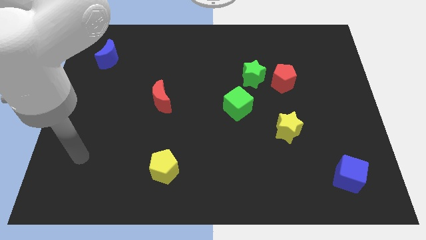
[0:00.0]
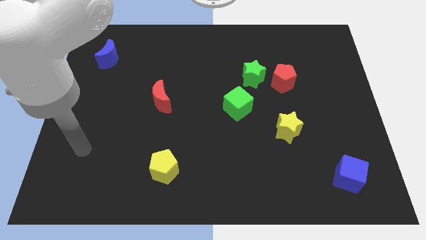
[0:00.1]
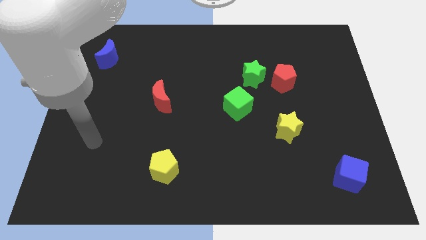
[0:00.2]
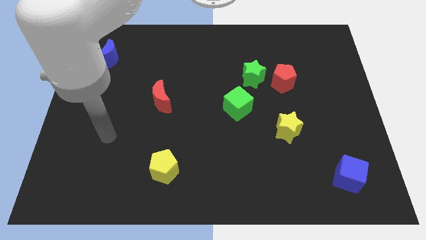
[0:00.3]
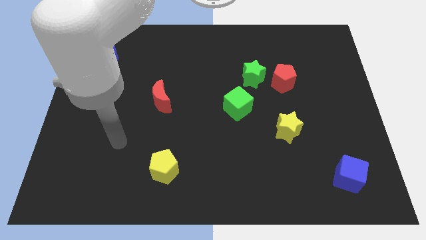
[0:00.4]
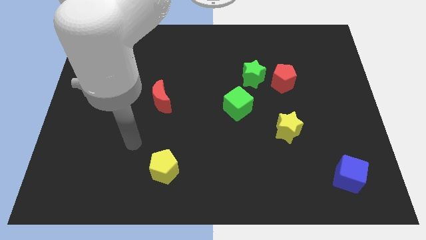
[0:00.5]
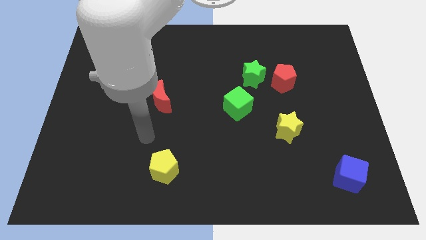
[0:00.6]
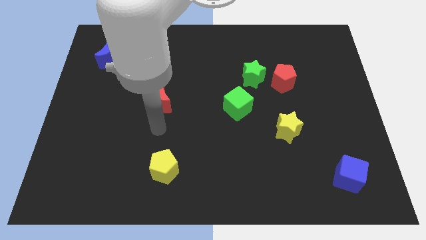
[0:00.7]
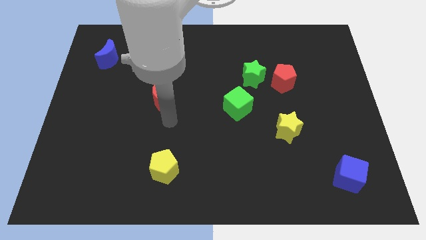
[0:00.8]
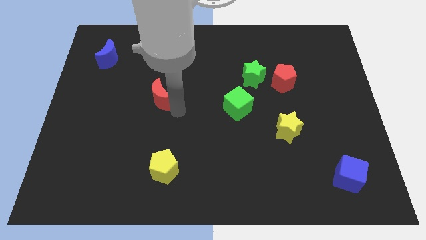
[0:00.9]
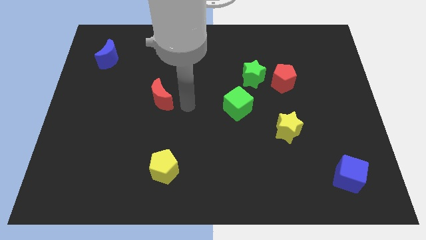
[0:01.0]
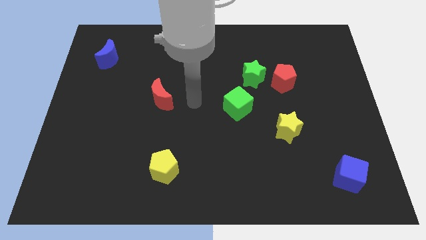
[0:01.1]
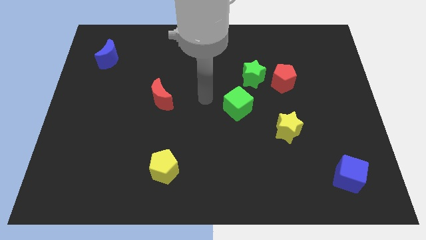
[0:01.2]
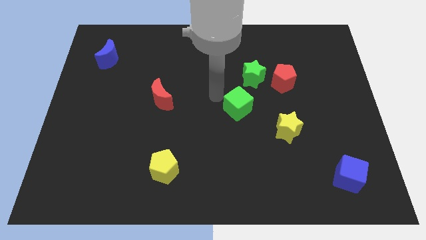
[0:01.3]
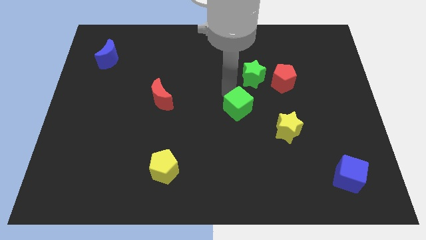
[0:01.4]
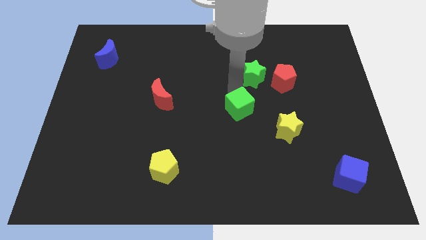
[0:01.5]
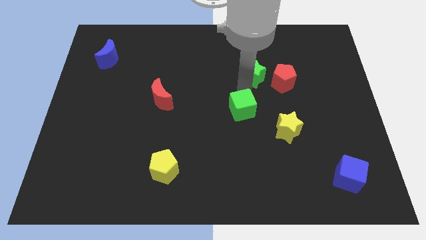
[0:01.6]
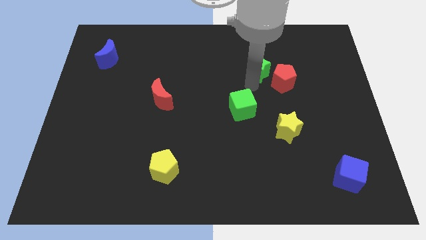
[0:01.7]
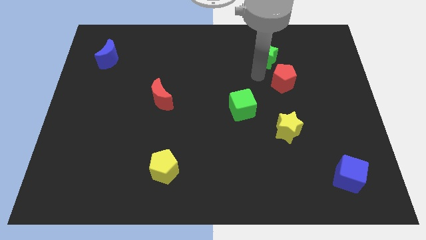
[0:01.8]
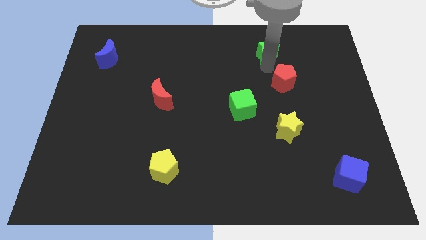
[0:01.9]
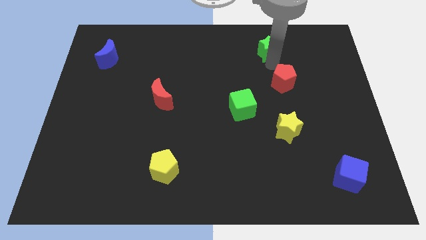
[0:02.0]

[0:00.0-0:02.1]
move the red pentagon away from the green star

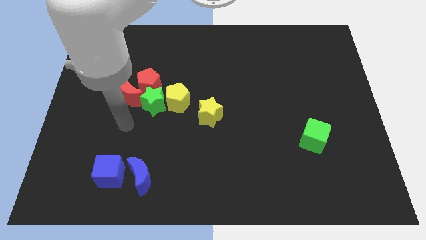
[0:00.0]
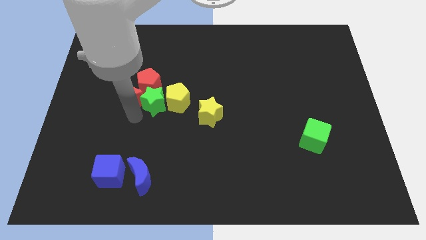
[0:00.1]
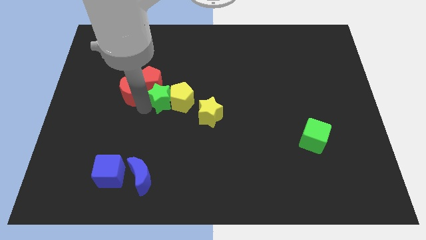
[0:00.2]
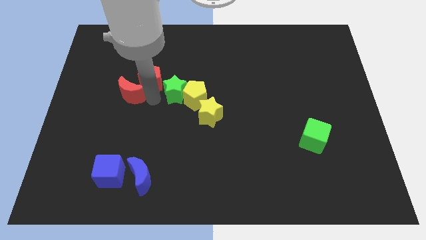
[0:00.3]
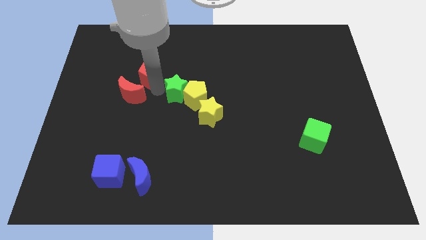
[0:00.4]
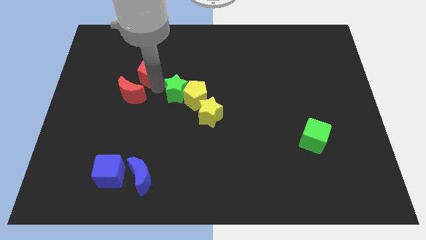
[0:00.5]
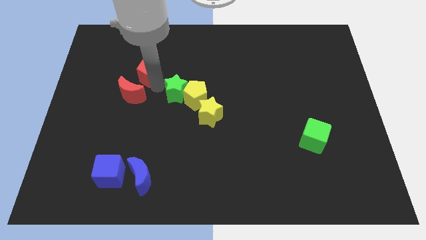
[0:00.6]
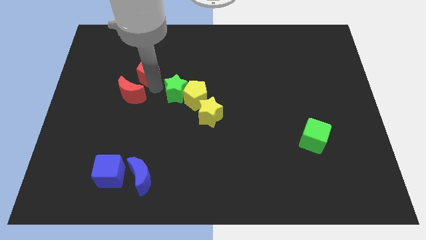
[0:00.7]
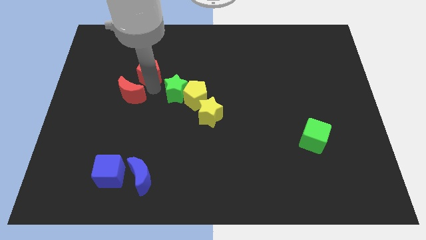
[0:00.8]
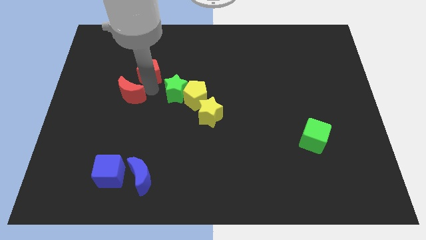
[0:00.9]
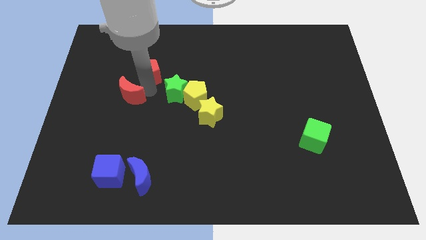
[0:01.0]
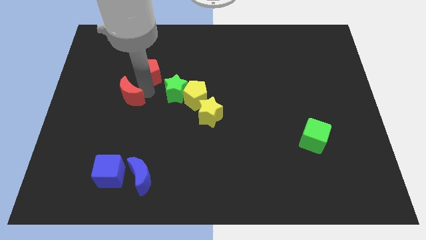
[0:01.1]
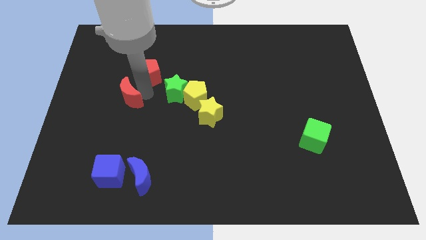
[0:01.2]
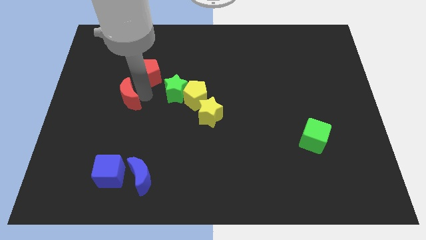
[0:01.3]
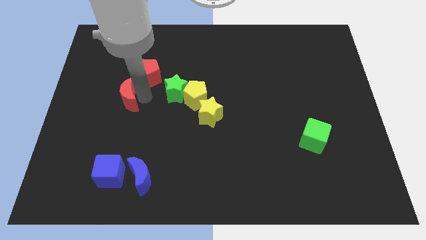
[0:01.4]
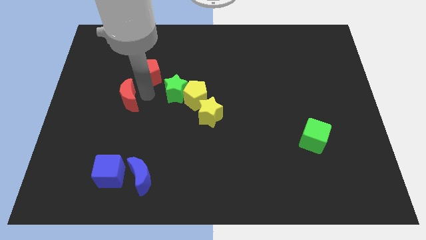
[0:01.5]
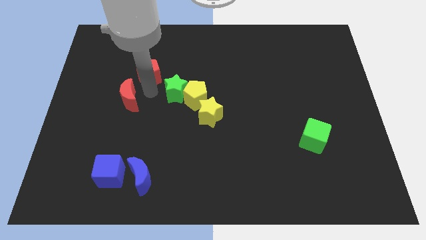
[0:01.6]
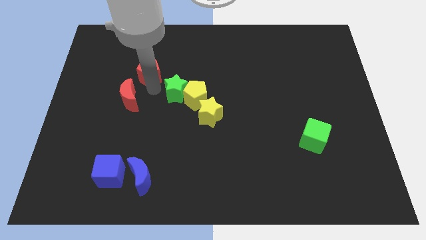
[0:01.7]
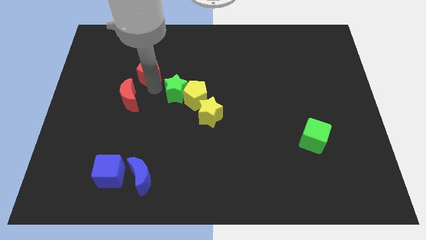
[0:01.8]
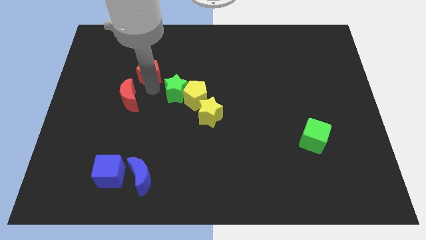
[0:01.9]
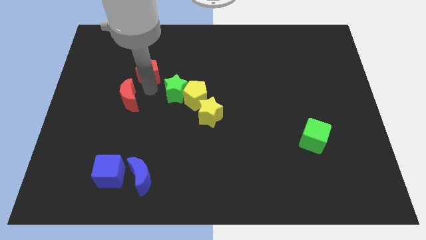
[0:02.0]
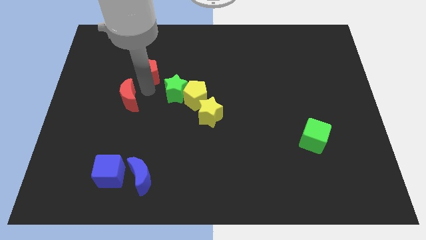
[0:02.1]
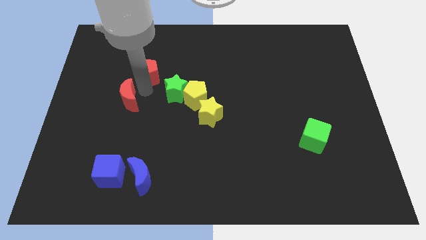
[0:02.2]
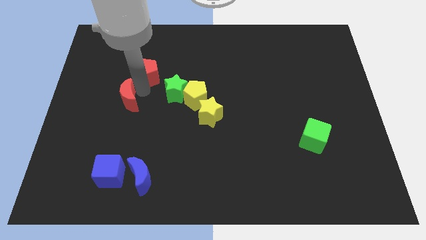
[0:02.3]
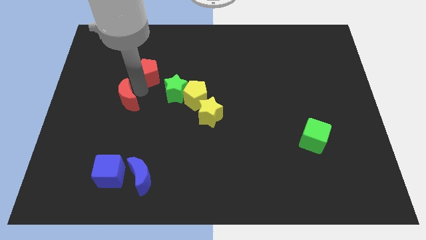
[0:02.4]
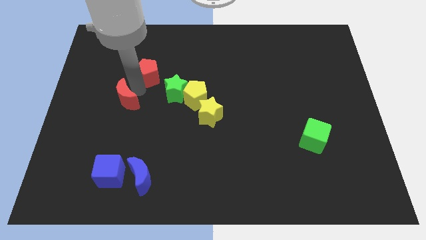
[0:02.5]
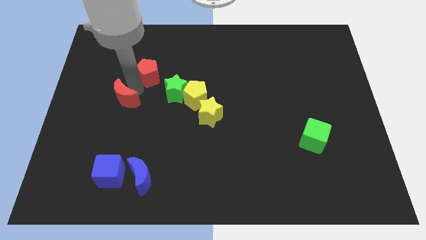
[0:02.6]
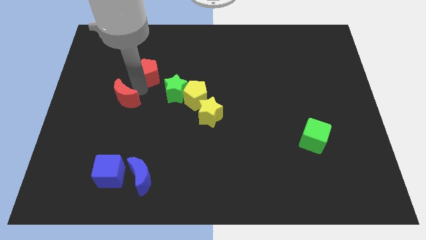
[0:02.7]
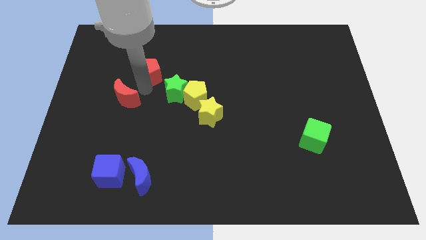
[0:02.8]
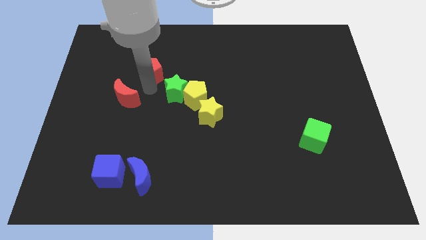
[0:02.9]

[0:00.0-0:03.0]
move the red moon away from the red pentagon and green star

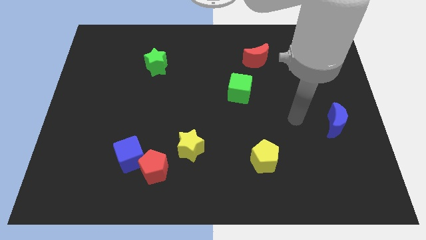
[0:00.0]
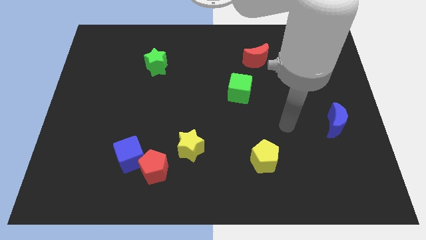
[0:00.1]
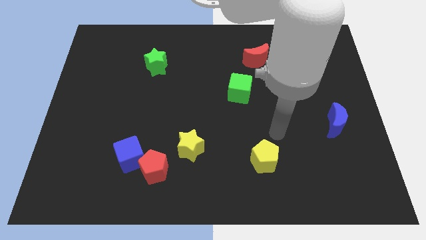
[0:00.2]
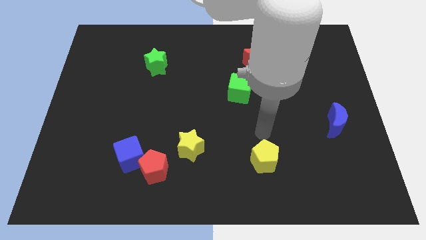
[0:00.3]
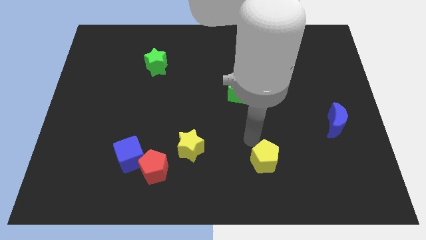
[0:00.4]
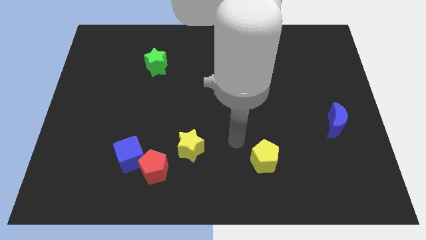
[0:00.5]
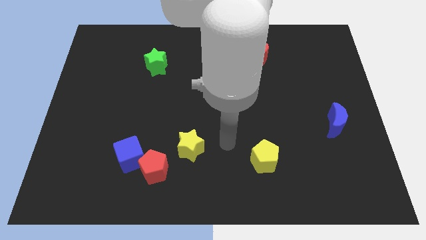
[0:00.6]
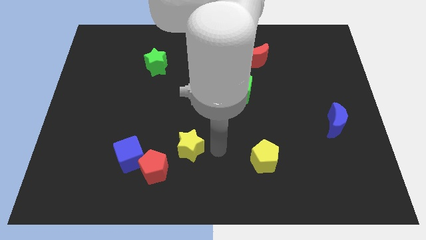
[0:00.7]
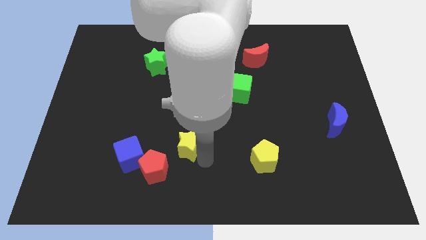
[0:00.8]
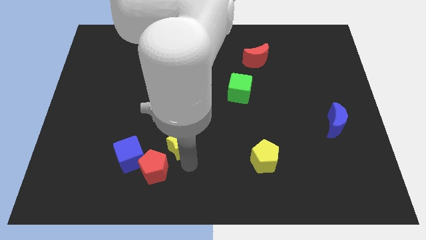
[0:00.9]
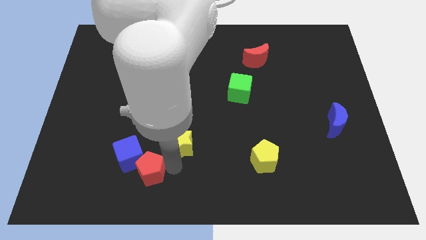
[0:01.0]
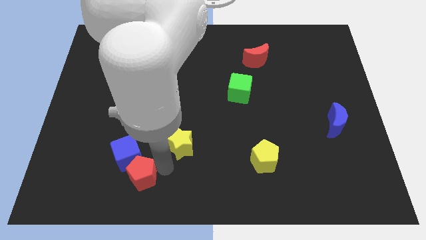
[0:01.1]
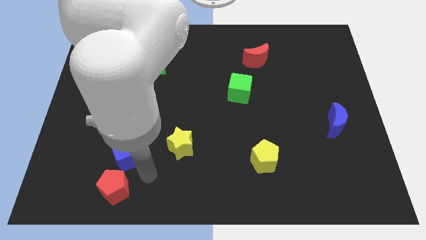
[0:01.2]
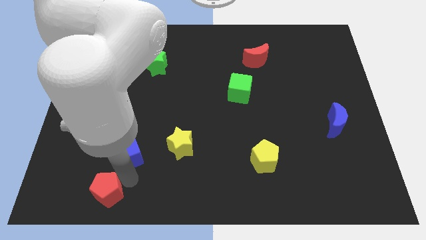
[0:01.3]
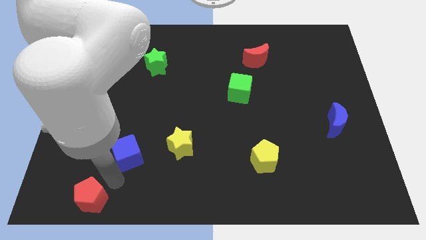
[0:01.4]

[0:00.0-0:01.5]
separate the blue cube from the red pentagon

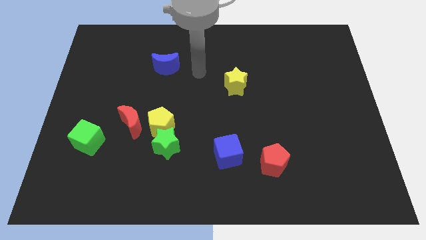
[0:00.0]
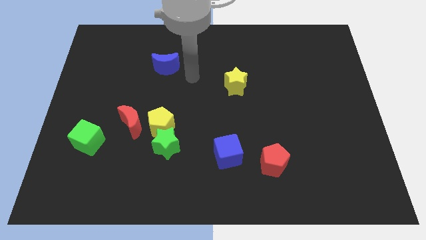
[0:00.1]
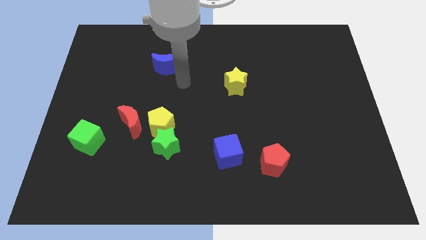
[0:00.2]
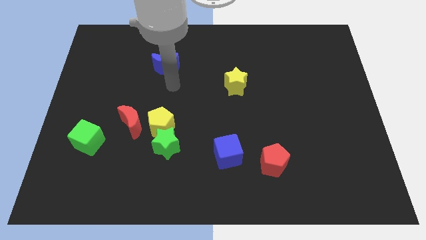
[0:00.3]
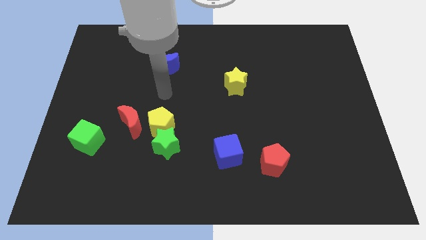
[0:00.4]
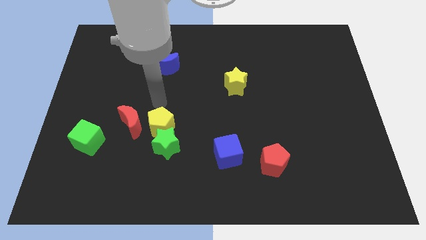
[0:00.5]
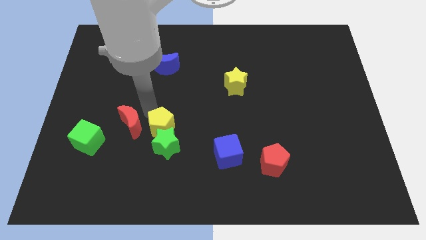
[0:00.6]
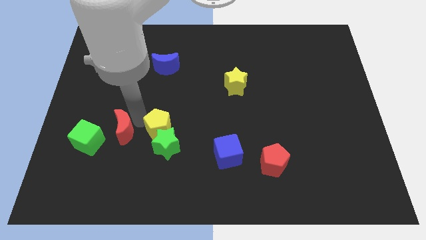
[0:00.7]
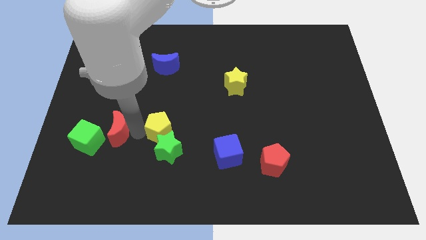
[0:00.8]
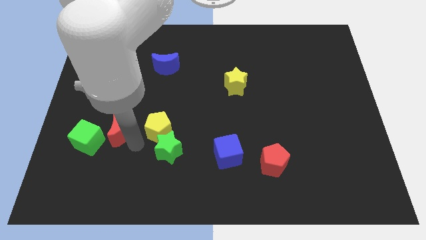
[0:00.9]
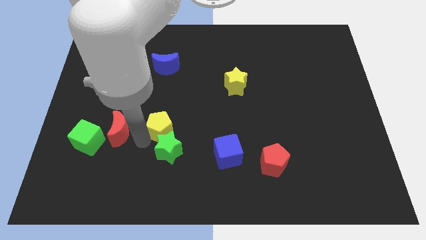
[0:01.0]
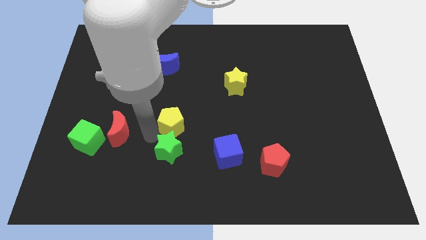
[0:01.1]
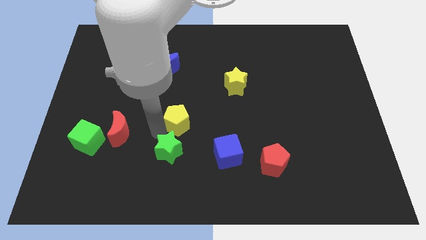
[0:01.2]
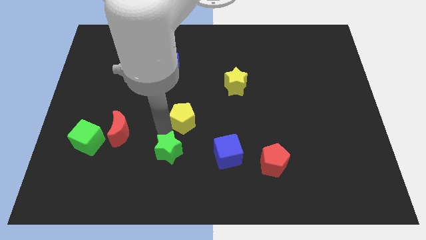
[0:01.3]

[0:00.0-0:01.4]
pull the yellow pentagon apart from the green star and red moon

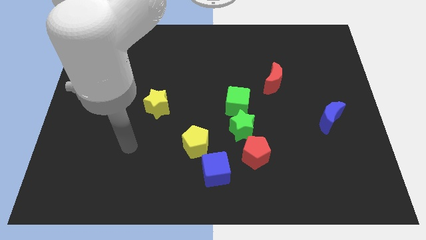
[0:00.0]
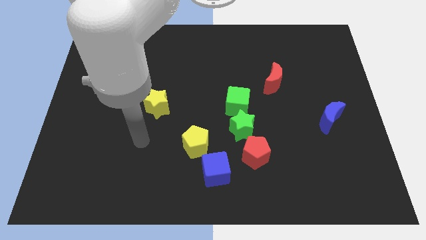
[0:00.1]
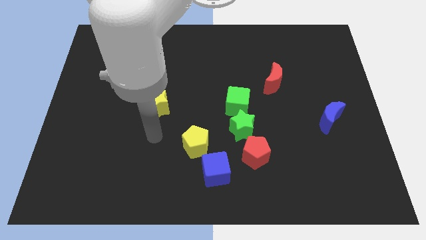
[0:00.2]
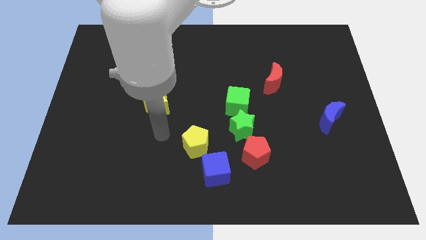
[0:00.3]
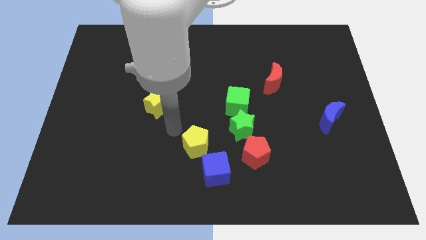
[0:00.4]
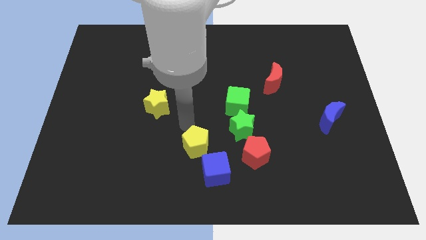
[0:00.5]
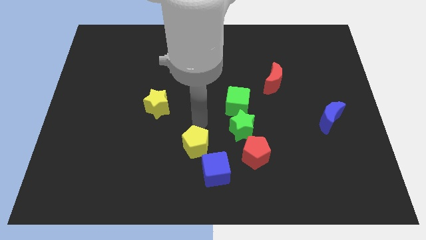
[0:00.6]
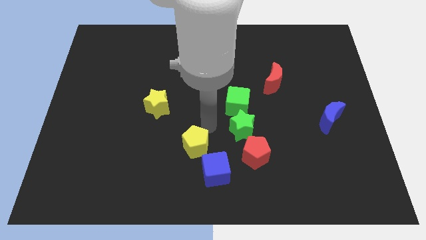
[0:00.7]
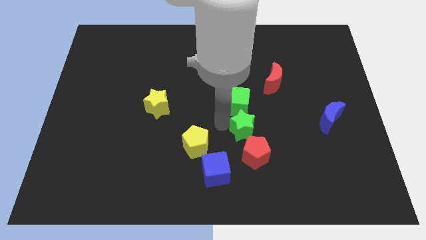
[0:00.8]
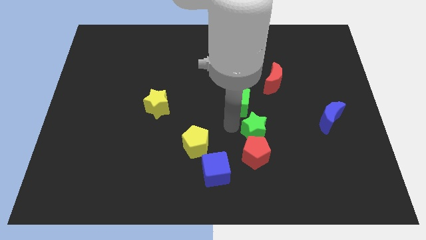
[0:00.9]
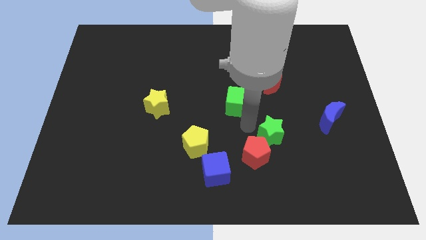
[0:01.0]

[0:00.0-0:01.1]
pull the green cube apart from the green star

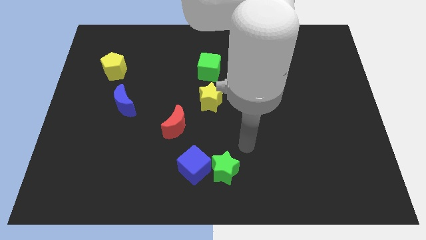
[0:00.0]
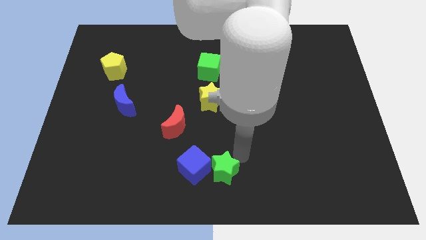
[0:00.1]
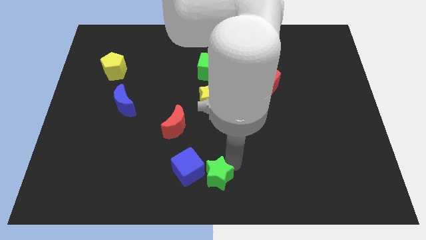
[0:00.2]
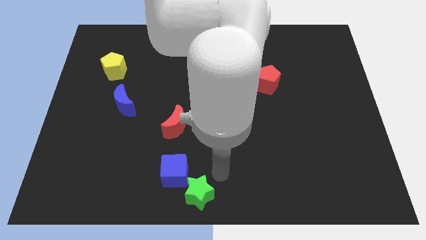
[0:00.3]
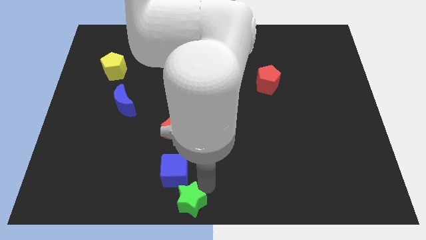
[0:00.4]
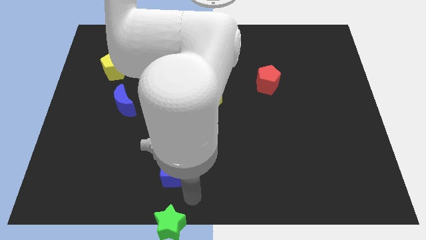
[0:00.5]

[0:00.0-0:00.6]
separate the blue cube from the green star
